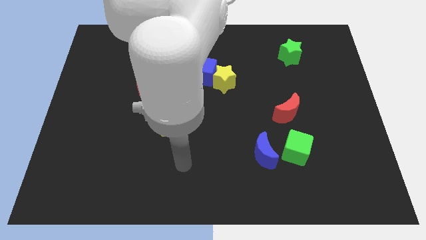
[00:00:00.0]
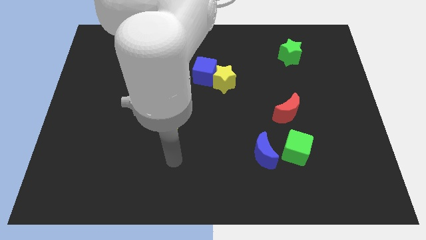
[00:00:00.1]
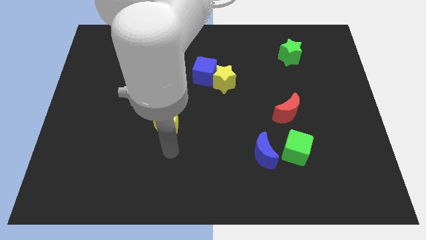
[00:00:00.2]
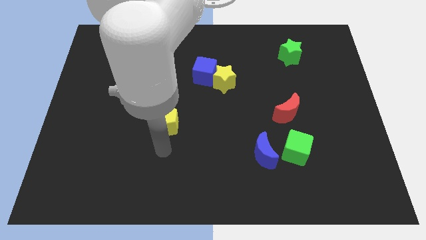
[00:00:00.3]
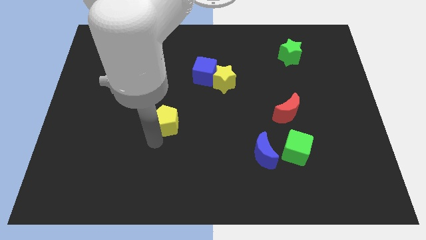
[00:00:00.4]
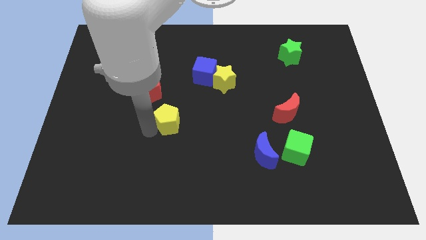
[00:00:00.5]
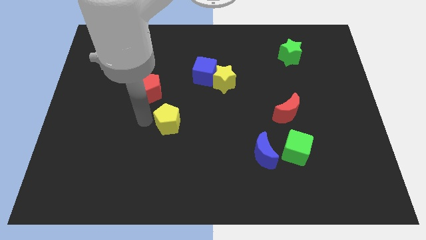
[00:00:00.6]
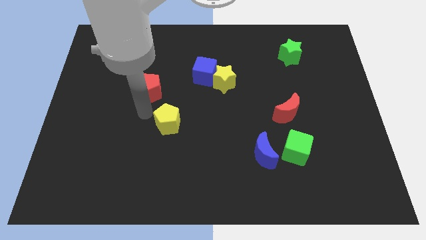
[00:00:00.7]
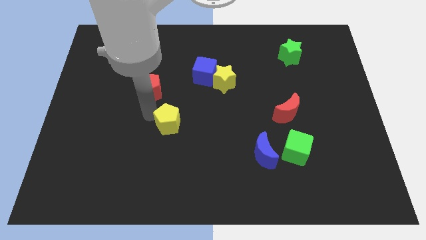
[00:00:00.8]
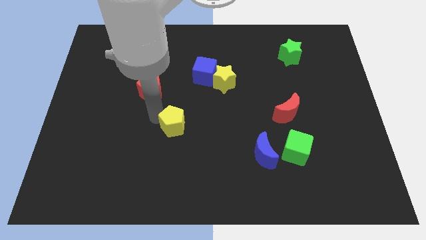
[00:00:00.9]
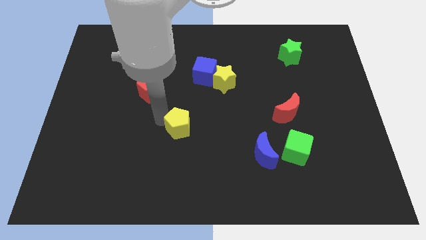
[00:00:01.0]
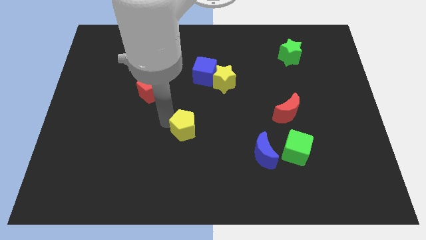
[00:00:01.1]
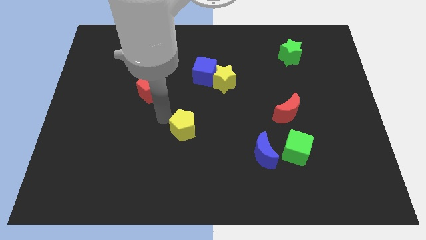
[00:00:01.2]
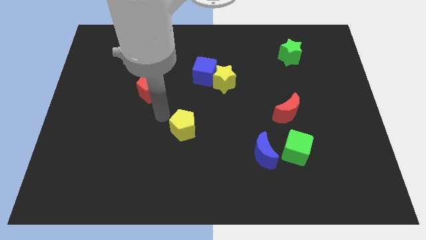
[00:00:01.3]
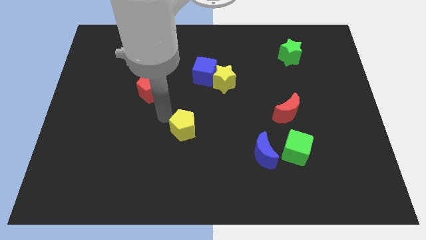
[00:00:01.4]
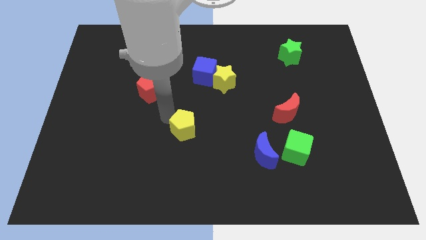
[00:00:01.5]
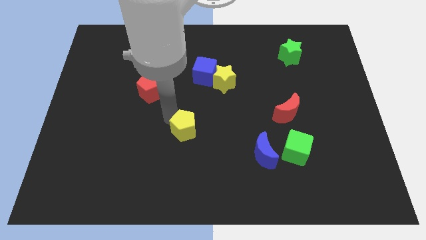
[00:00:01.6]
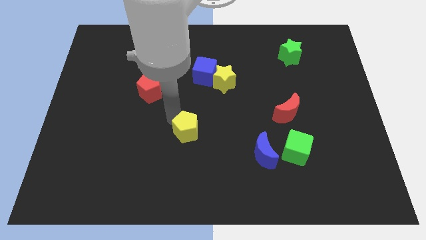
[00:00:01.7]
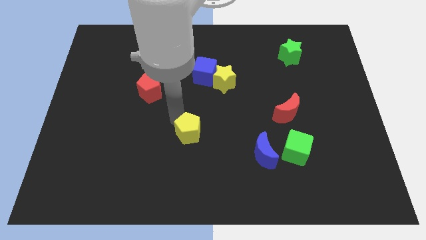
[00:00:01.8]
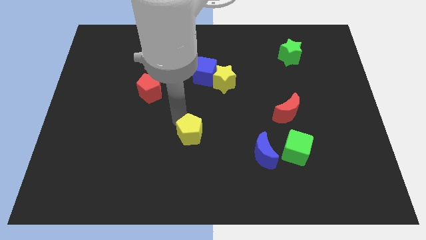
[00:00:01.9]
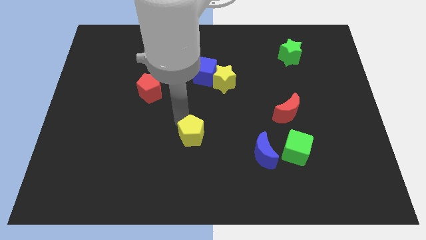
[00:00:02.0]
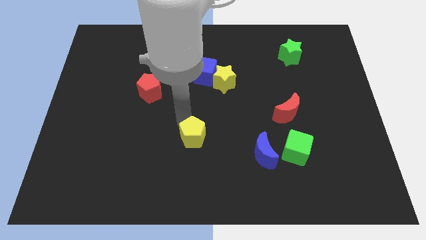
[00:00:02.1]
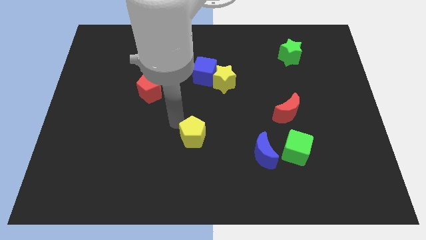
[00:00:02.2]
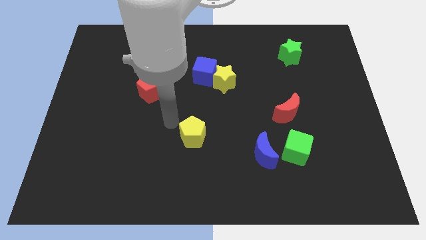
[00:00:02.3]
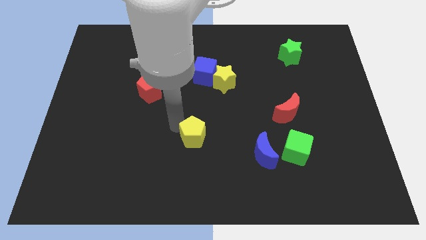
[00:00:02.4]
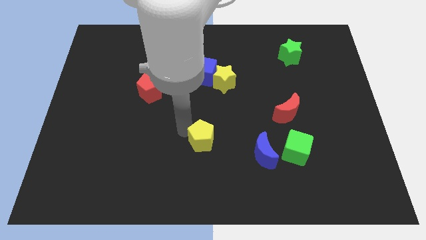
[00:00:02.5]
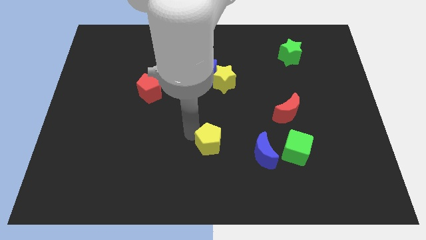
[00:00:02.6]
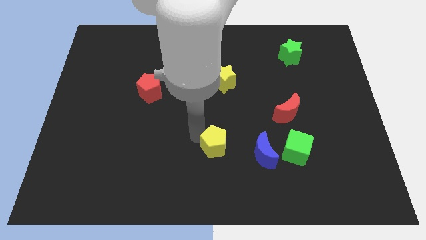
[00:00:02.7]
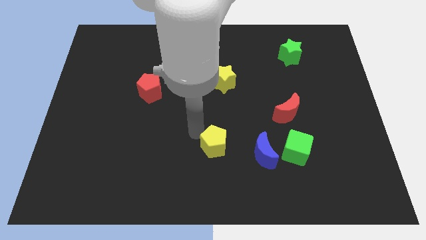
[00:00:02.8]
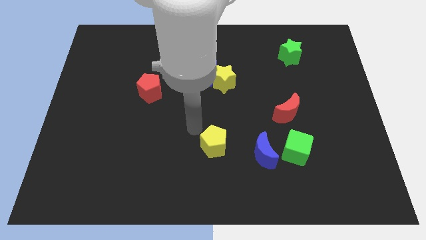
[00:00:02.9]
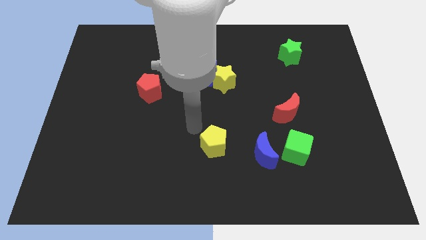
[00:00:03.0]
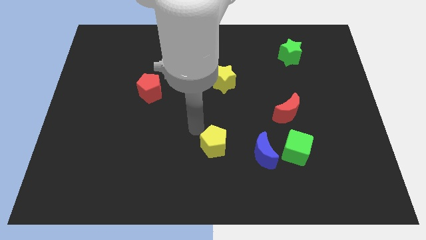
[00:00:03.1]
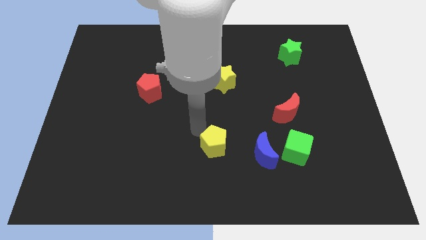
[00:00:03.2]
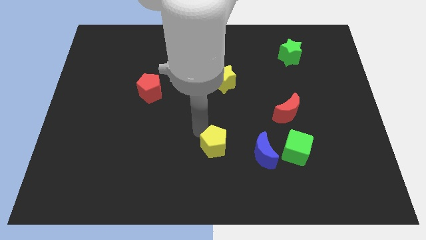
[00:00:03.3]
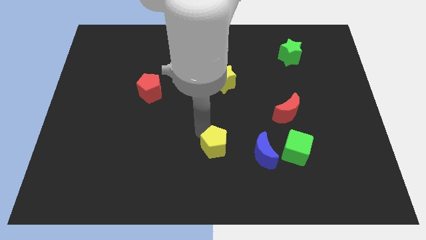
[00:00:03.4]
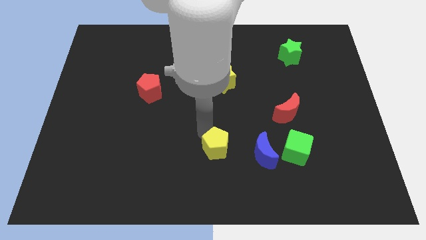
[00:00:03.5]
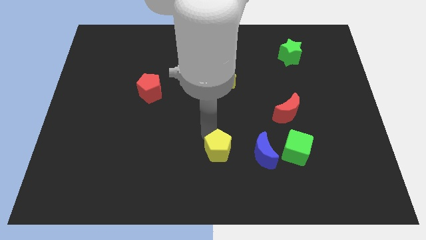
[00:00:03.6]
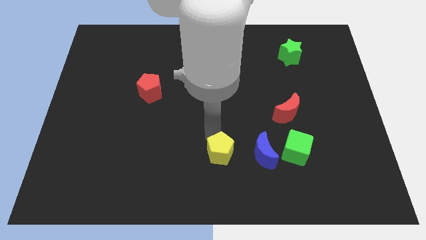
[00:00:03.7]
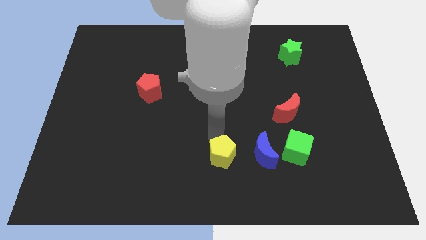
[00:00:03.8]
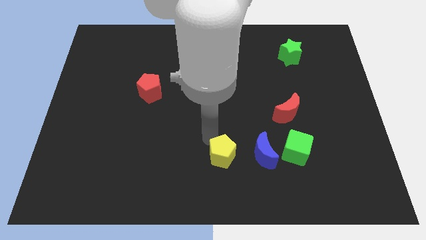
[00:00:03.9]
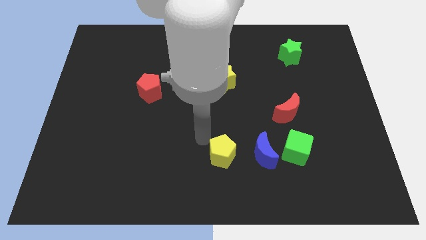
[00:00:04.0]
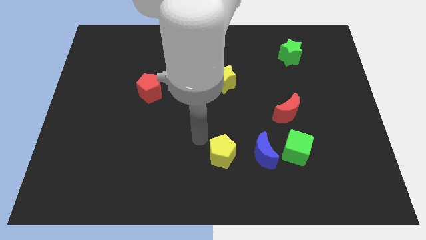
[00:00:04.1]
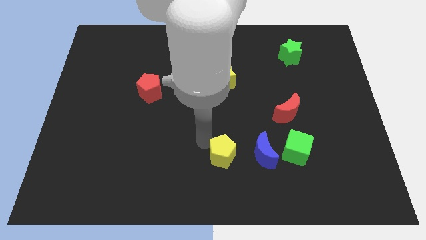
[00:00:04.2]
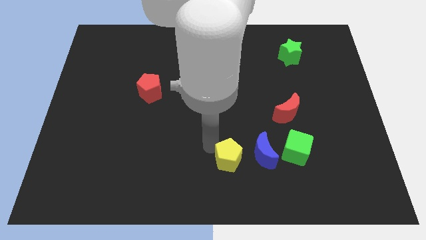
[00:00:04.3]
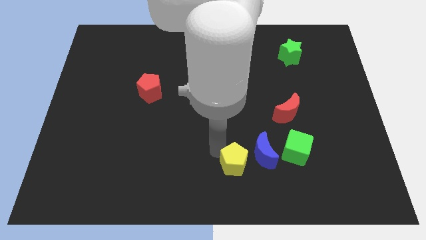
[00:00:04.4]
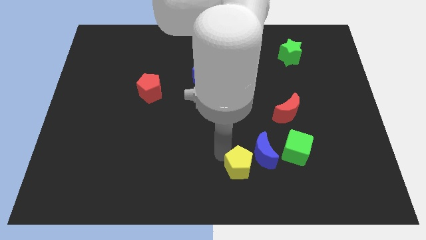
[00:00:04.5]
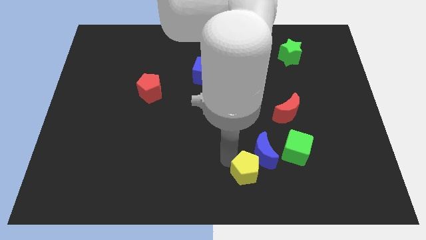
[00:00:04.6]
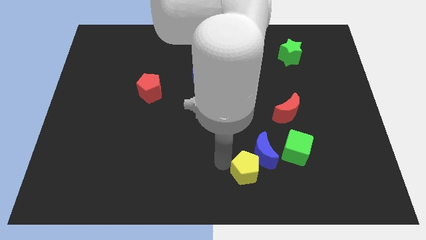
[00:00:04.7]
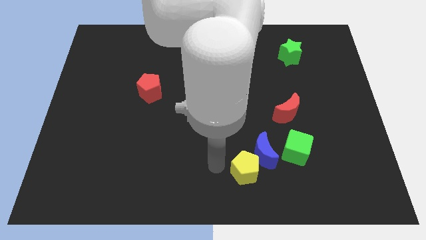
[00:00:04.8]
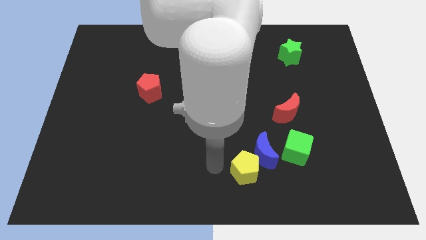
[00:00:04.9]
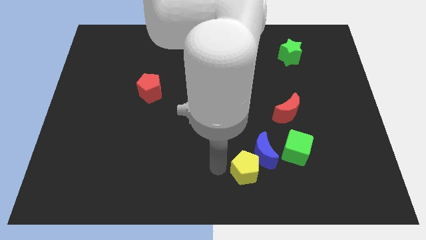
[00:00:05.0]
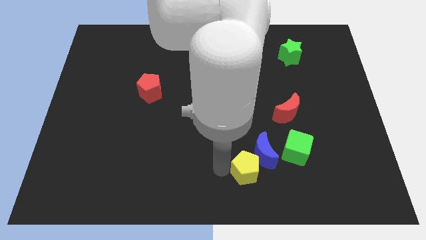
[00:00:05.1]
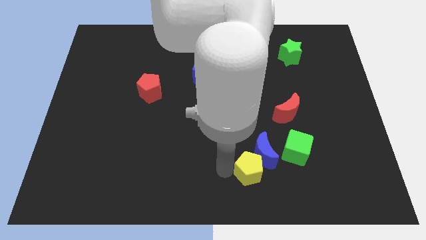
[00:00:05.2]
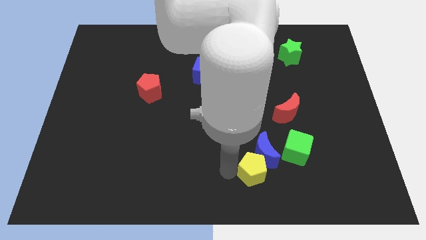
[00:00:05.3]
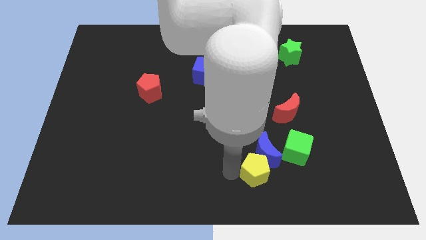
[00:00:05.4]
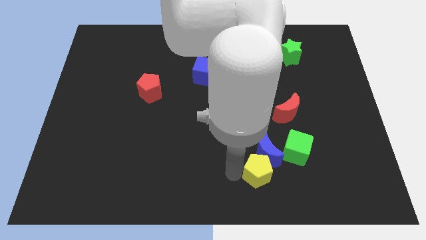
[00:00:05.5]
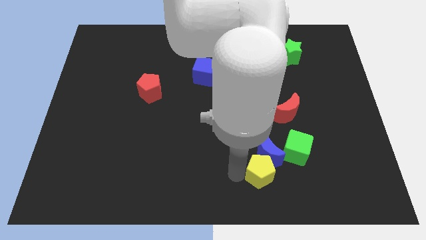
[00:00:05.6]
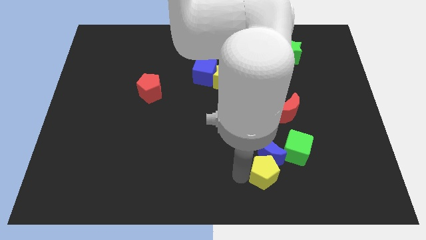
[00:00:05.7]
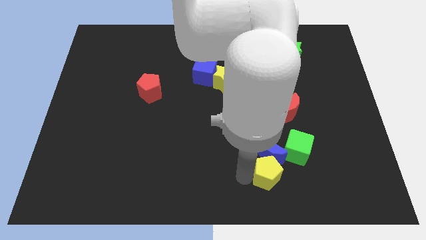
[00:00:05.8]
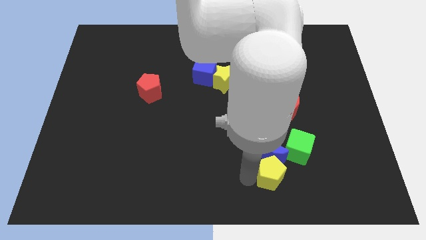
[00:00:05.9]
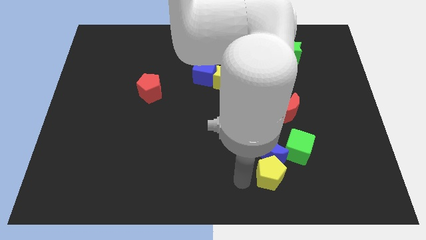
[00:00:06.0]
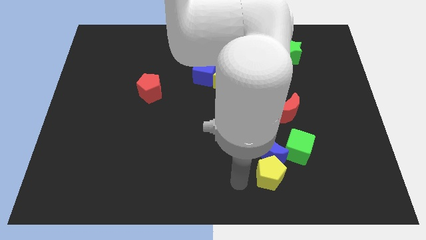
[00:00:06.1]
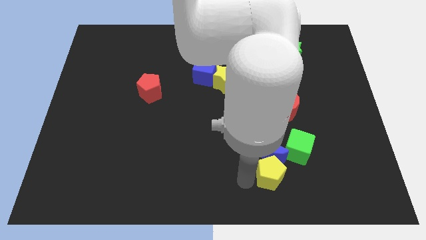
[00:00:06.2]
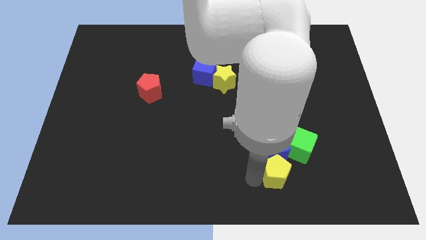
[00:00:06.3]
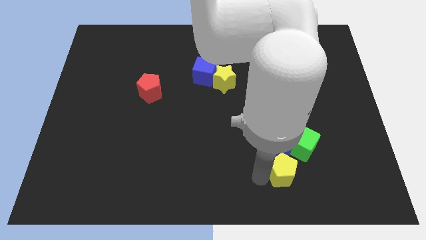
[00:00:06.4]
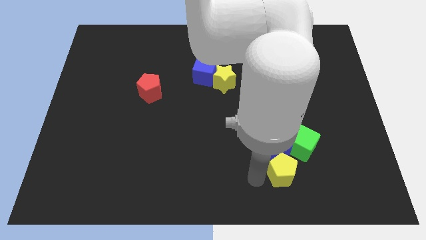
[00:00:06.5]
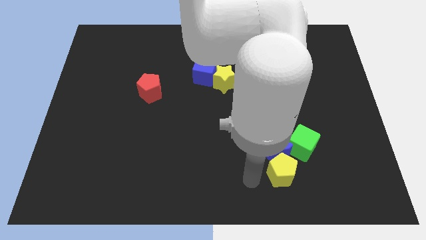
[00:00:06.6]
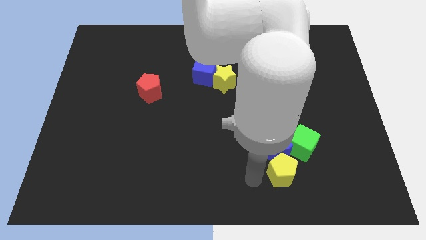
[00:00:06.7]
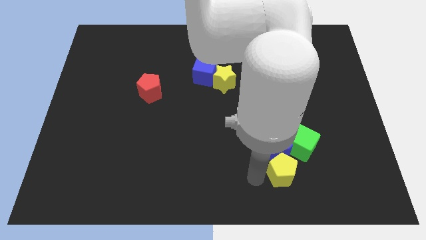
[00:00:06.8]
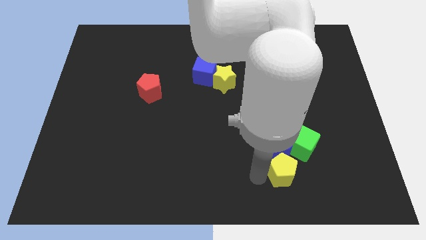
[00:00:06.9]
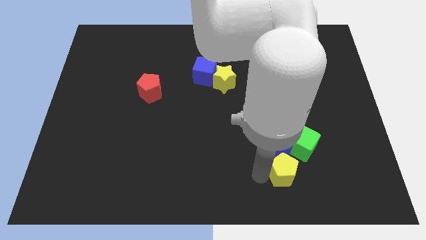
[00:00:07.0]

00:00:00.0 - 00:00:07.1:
move the yellow pentagon to the bottom of the red moon
